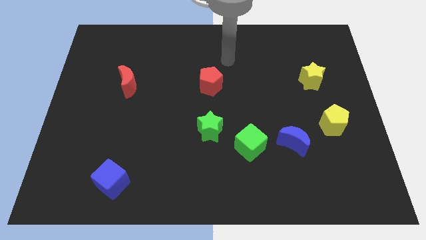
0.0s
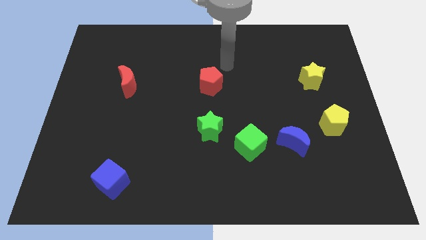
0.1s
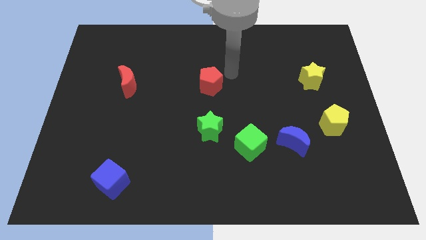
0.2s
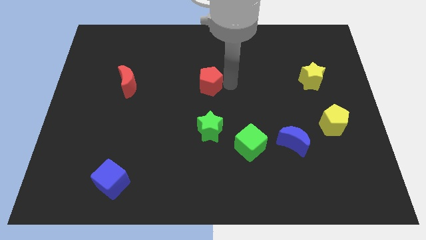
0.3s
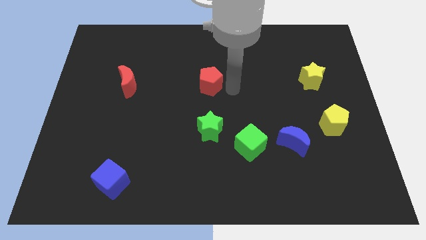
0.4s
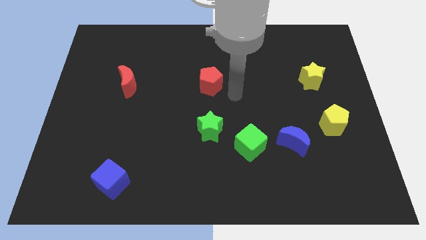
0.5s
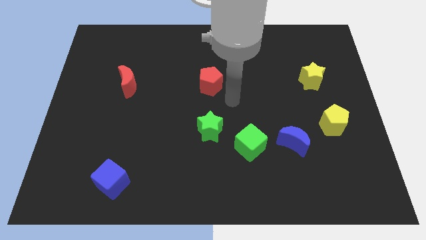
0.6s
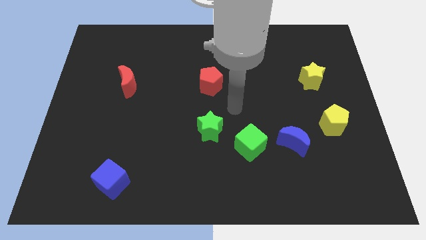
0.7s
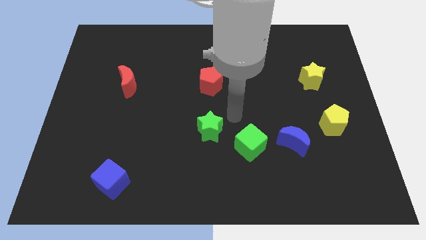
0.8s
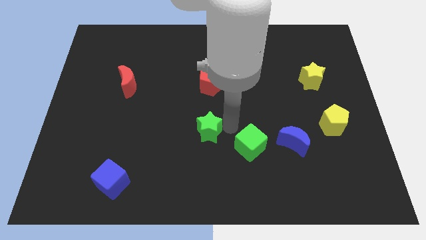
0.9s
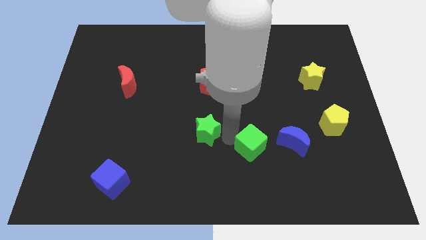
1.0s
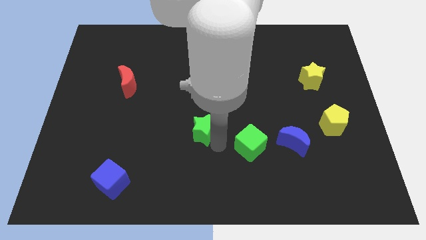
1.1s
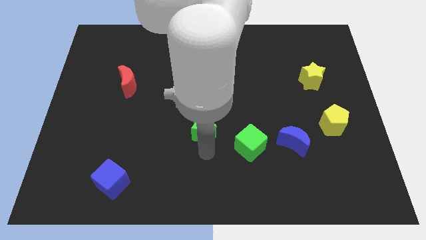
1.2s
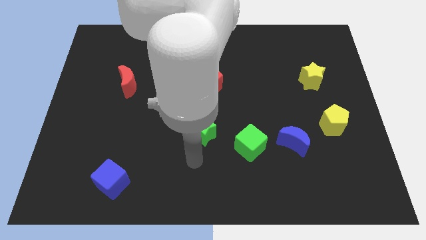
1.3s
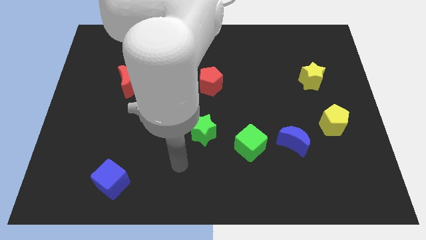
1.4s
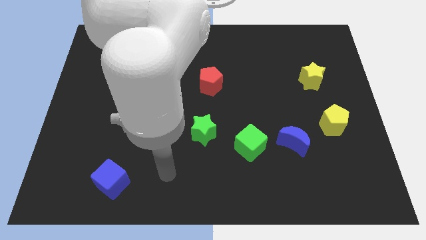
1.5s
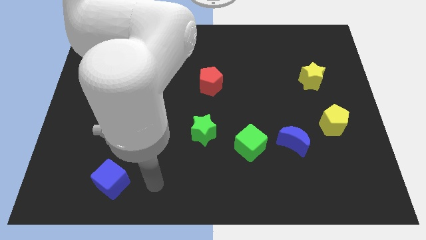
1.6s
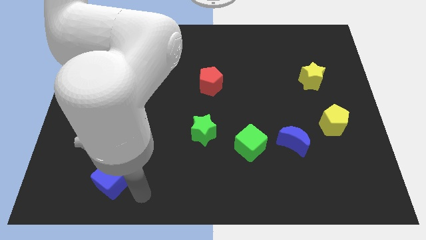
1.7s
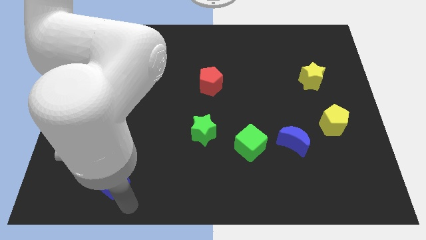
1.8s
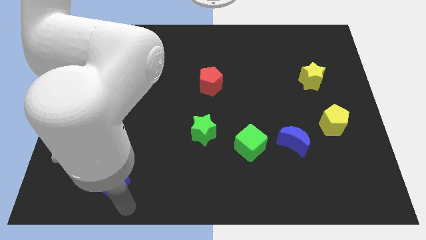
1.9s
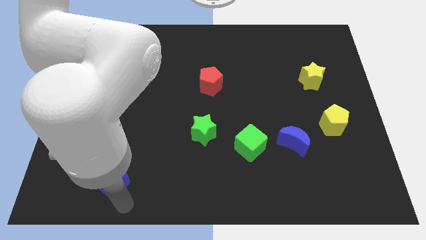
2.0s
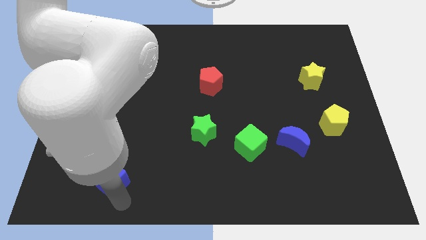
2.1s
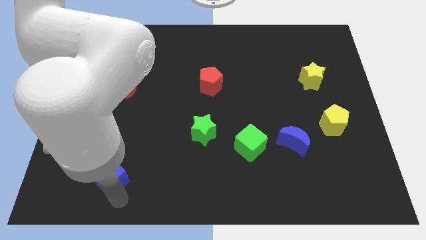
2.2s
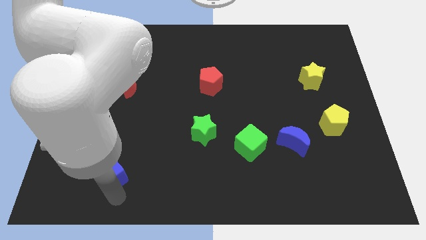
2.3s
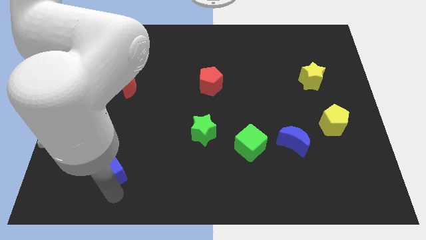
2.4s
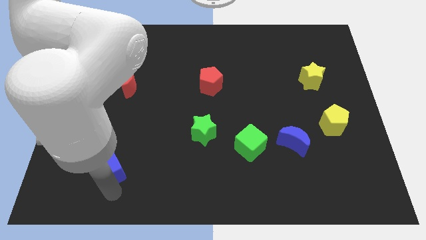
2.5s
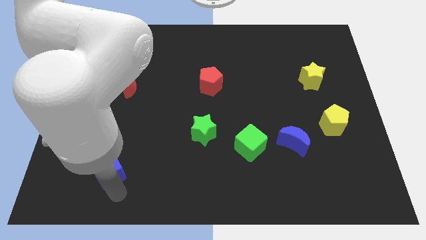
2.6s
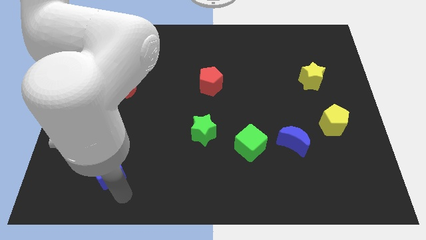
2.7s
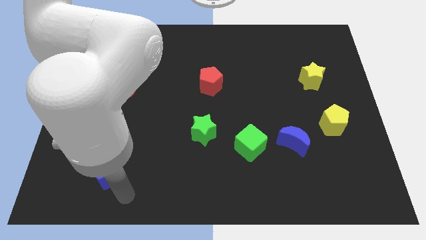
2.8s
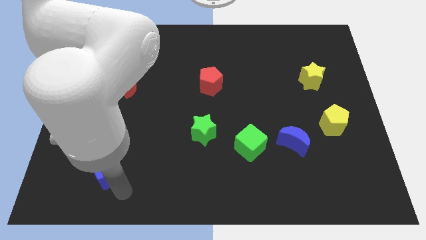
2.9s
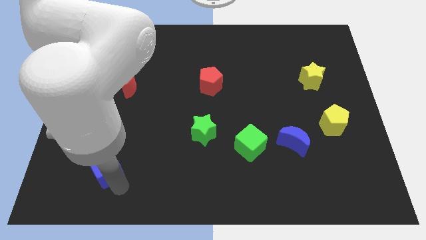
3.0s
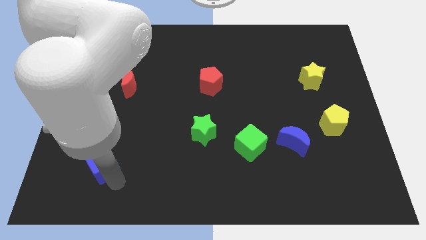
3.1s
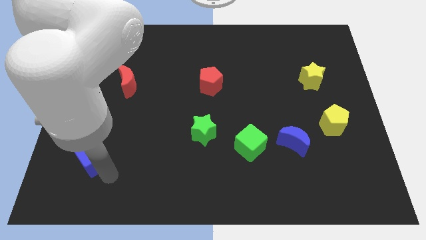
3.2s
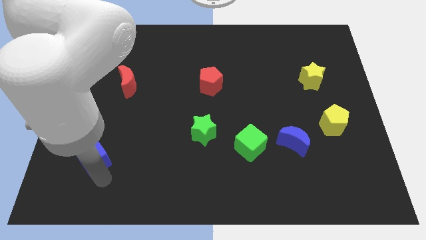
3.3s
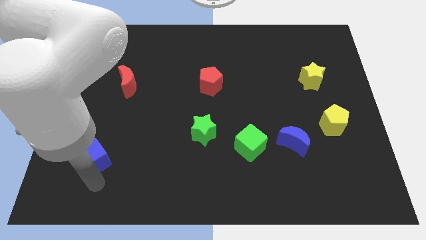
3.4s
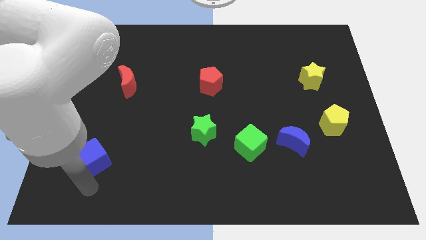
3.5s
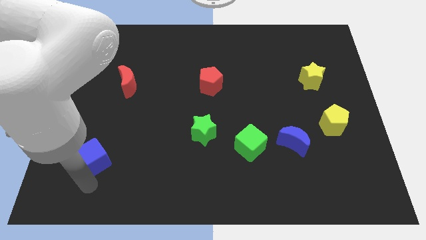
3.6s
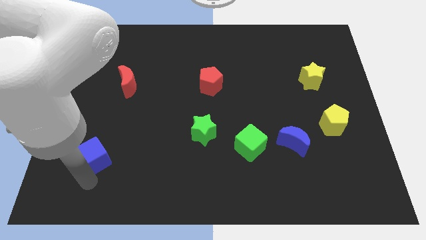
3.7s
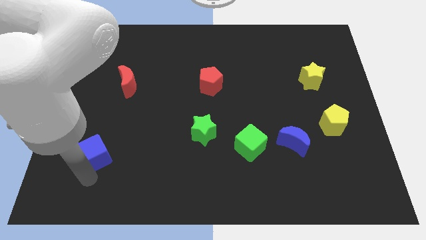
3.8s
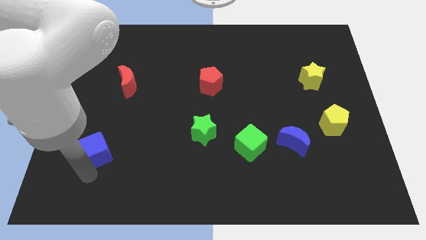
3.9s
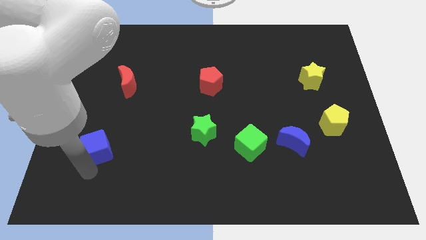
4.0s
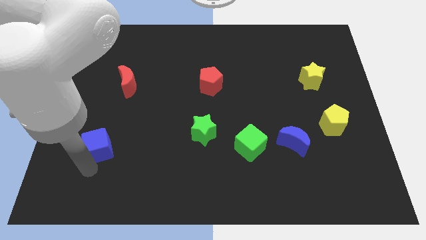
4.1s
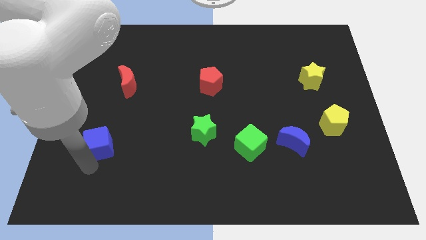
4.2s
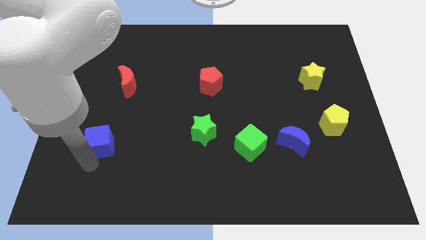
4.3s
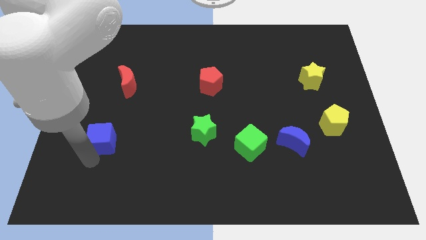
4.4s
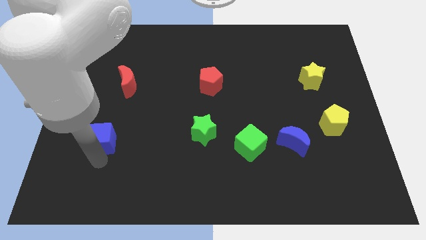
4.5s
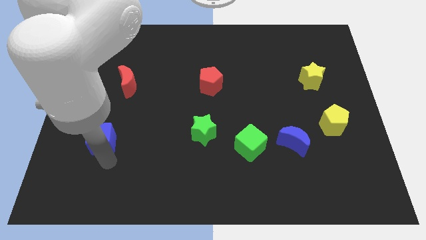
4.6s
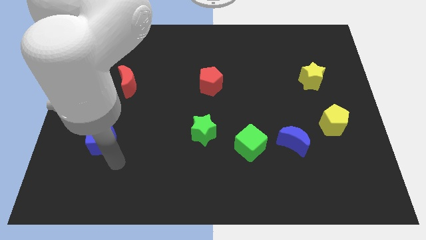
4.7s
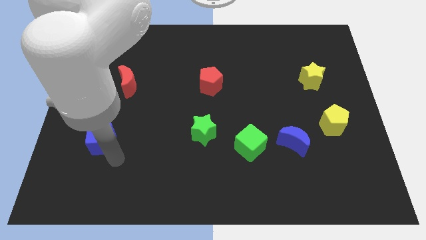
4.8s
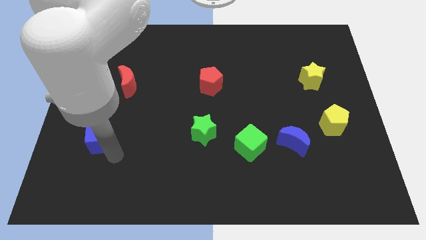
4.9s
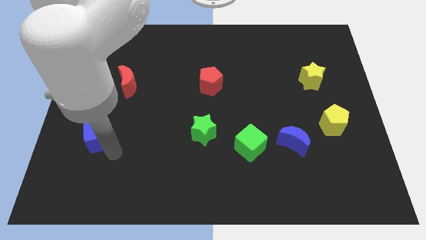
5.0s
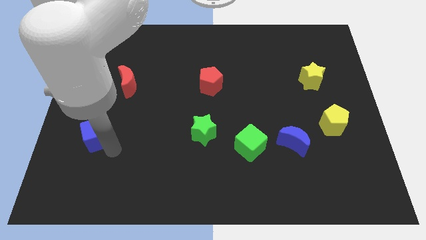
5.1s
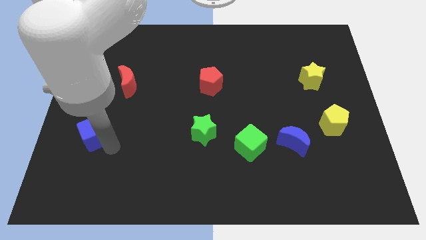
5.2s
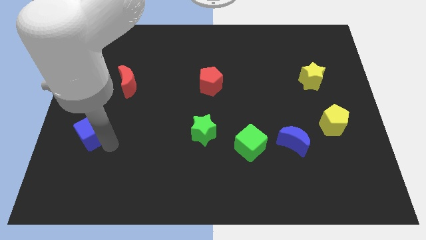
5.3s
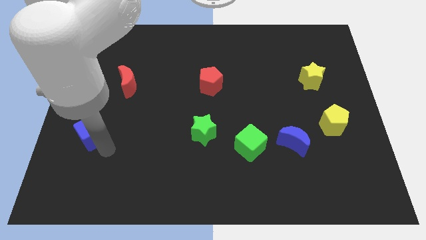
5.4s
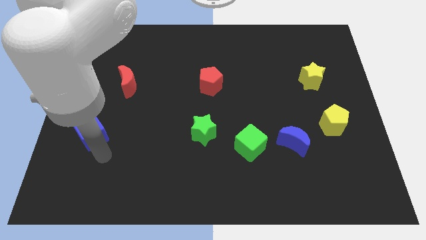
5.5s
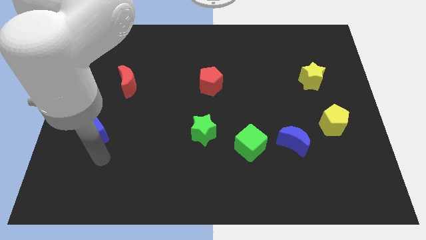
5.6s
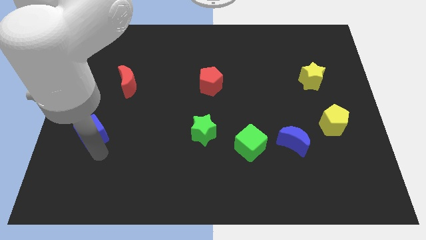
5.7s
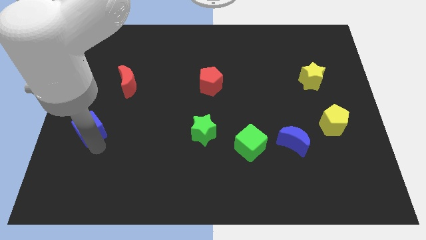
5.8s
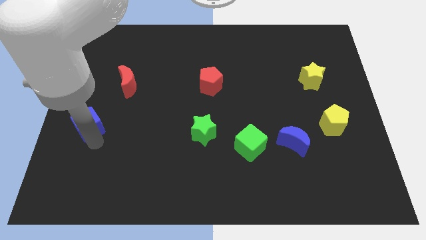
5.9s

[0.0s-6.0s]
put the blue cube to the left side of the board
